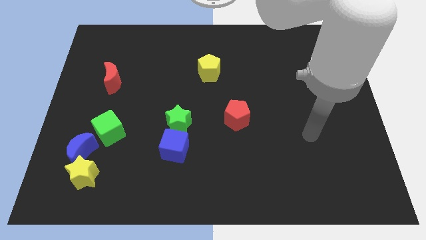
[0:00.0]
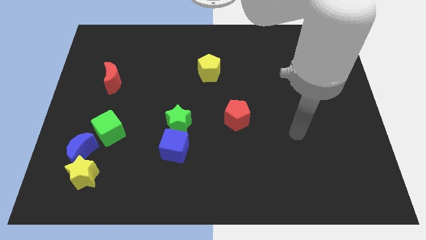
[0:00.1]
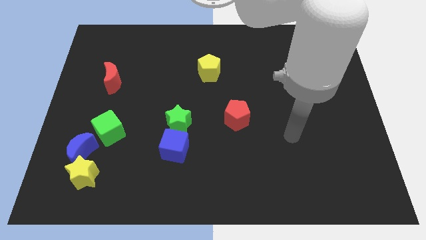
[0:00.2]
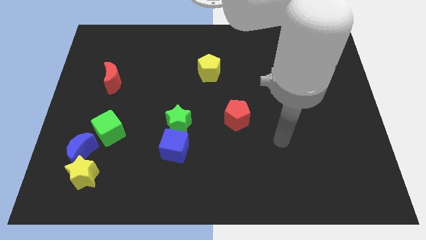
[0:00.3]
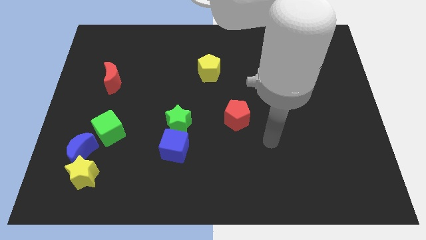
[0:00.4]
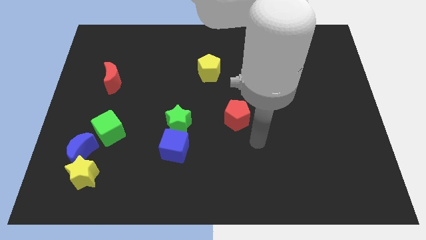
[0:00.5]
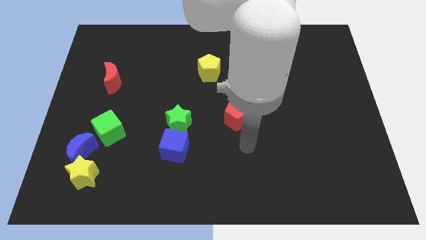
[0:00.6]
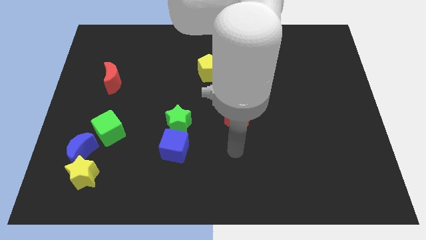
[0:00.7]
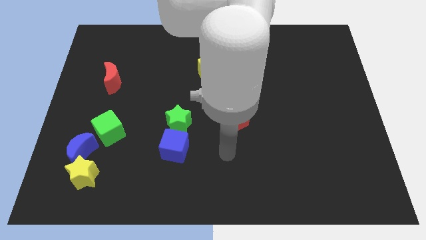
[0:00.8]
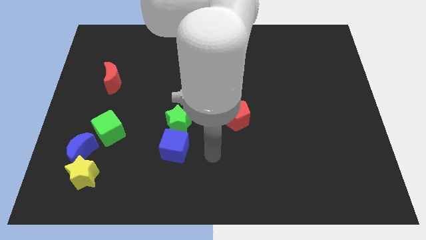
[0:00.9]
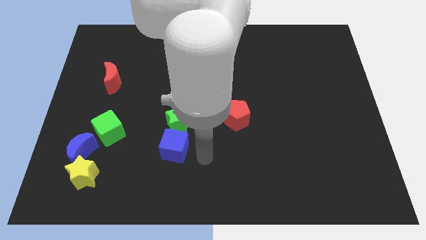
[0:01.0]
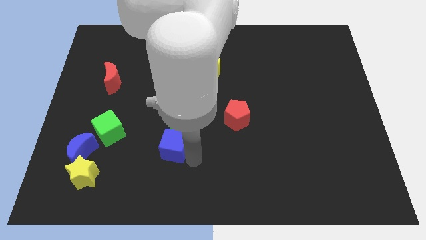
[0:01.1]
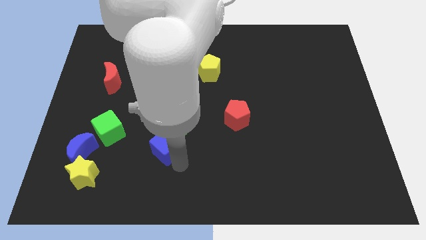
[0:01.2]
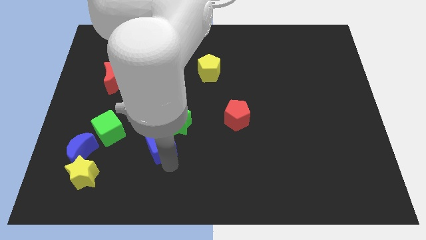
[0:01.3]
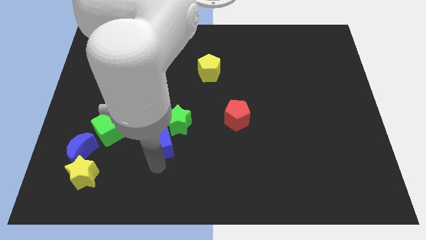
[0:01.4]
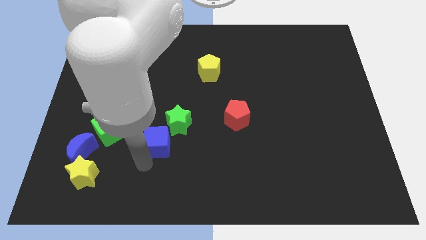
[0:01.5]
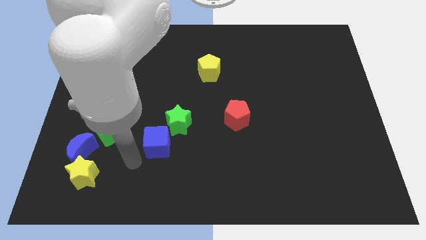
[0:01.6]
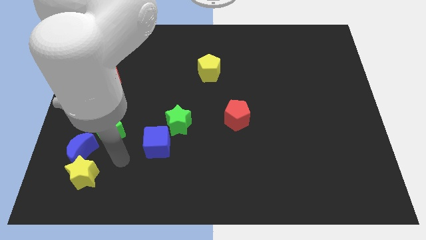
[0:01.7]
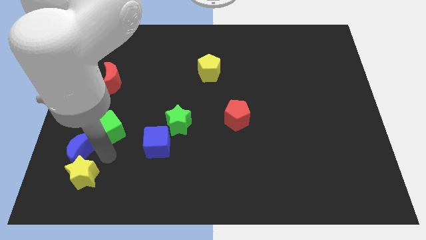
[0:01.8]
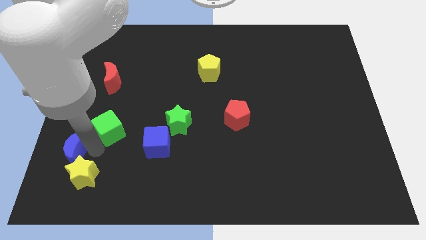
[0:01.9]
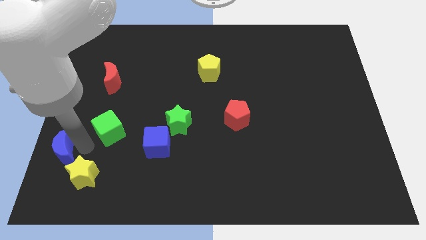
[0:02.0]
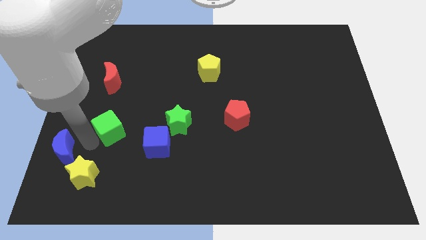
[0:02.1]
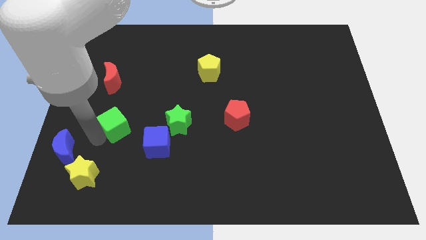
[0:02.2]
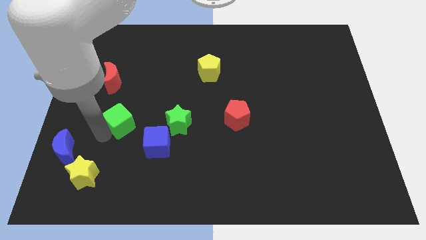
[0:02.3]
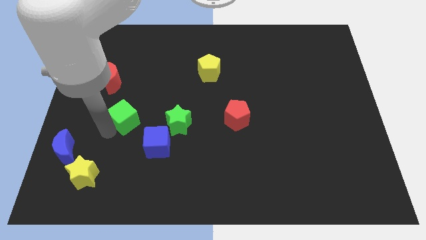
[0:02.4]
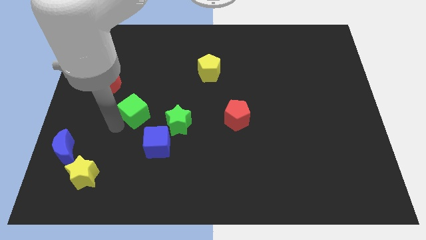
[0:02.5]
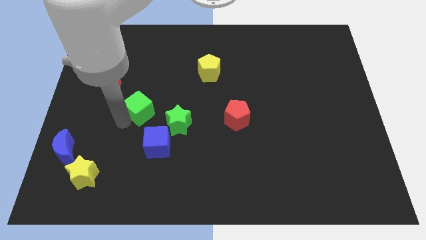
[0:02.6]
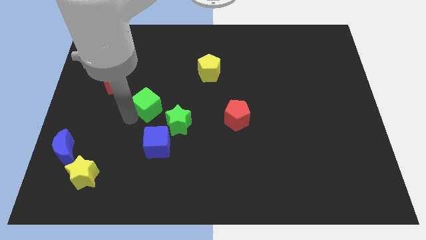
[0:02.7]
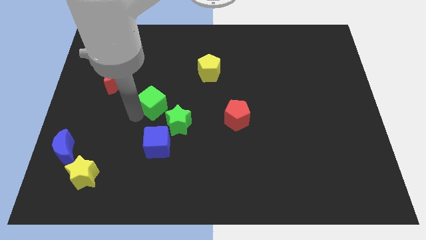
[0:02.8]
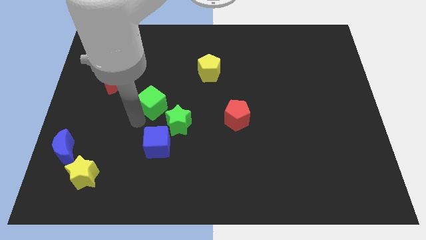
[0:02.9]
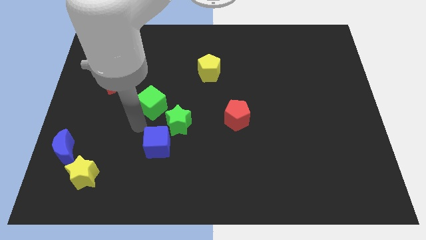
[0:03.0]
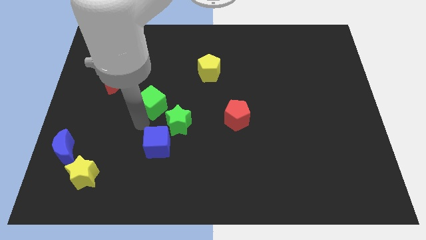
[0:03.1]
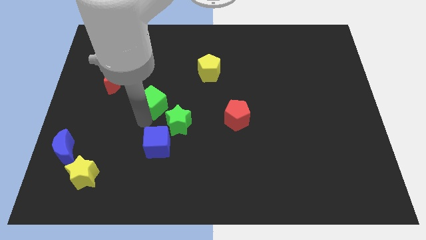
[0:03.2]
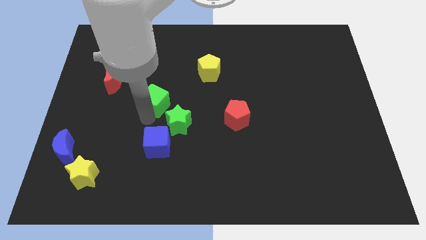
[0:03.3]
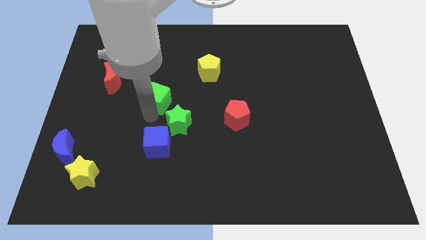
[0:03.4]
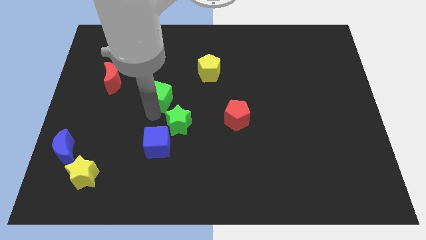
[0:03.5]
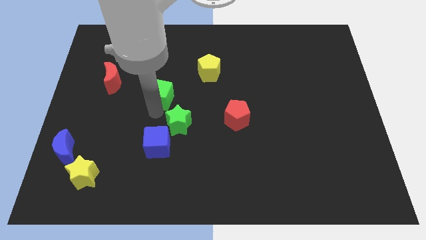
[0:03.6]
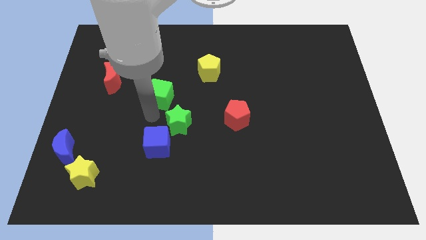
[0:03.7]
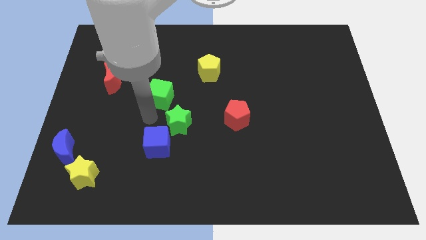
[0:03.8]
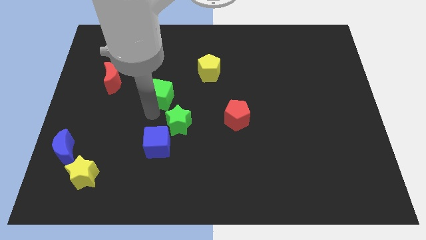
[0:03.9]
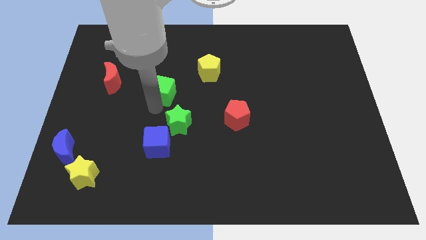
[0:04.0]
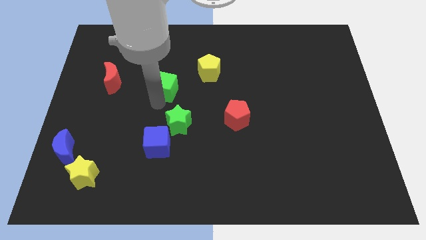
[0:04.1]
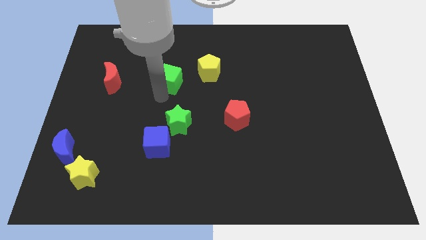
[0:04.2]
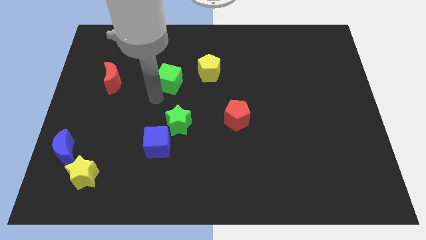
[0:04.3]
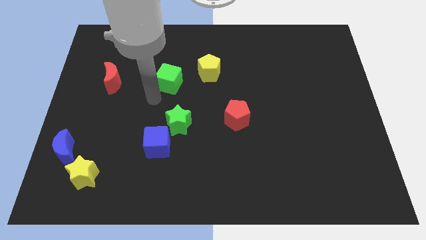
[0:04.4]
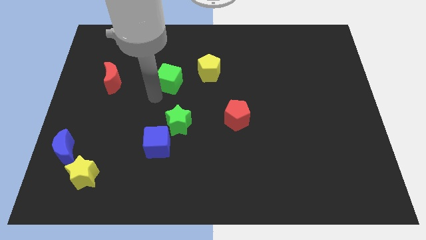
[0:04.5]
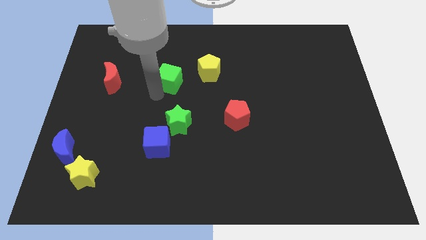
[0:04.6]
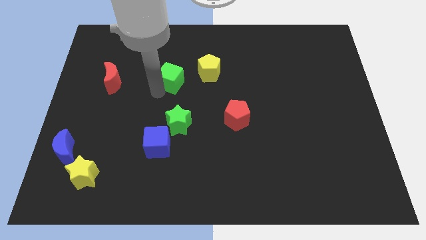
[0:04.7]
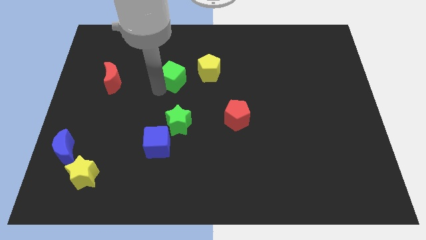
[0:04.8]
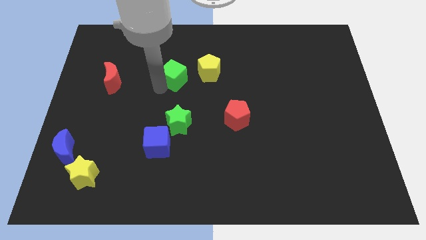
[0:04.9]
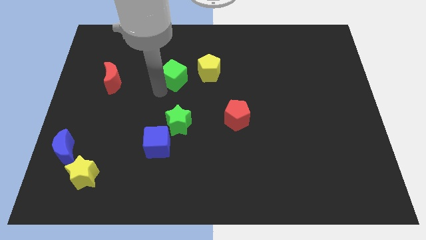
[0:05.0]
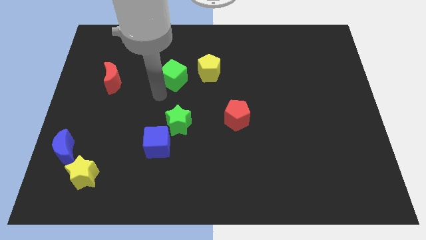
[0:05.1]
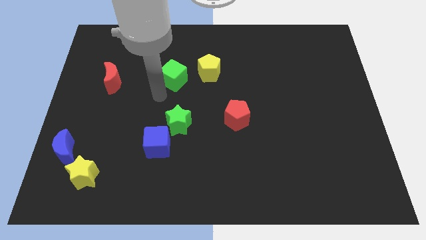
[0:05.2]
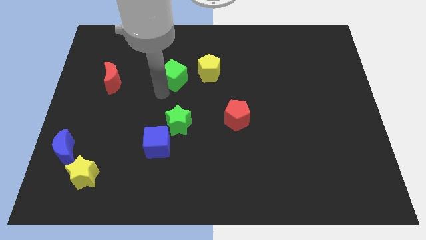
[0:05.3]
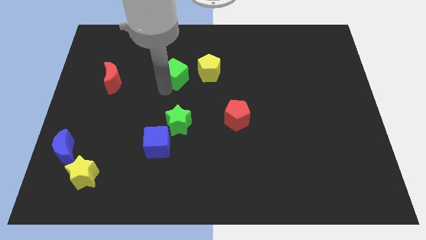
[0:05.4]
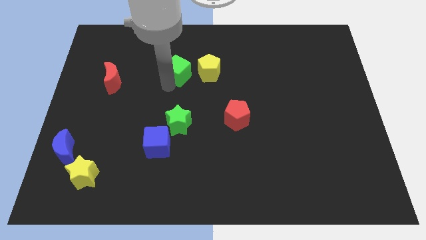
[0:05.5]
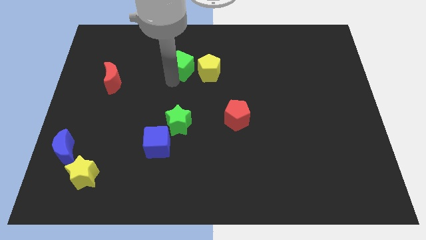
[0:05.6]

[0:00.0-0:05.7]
put the green cube diagonally up and to the left of the yellow pentagon

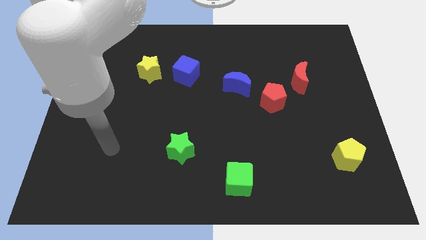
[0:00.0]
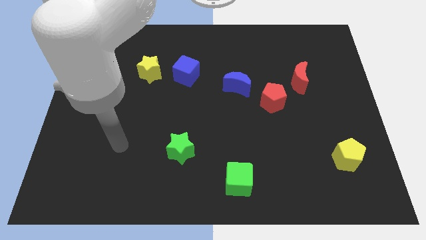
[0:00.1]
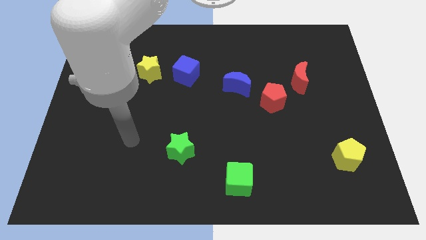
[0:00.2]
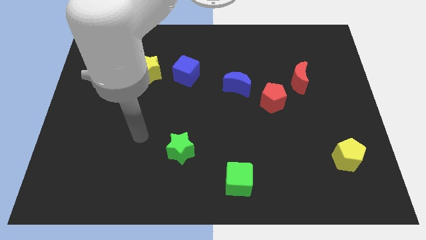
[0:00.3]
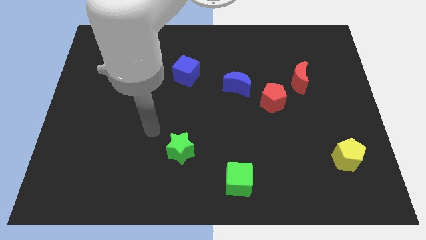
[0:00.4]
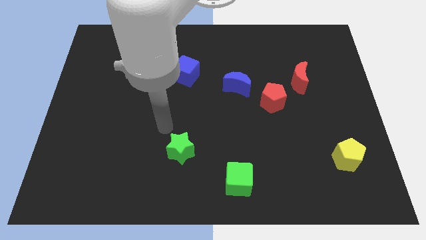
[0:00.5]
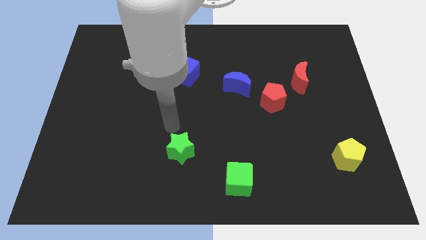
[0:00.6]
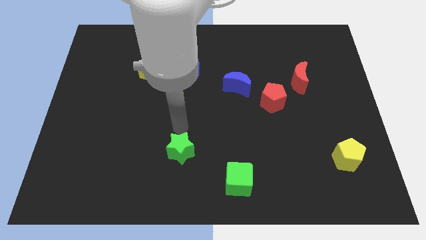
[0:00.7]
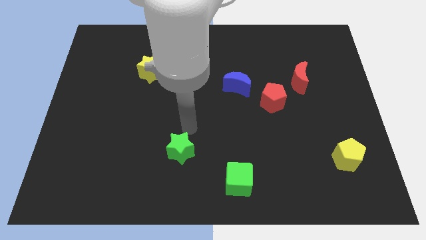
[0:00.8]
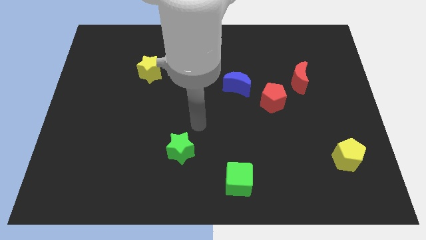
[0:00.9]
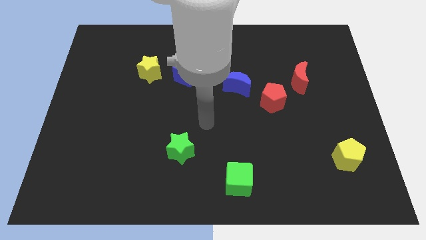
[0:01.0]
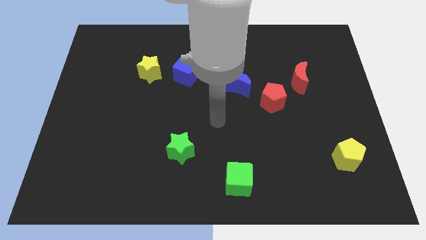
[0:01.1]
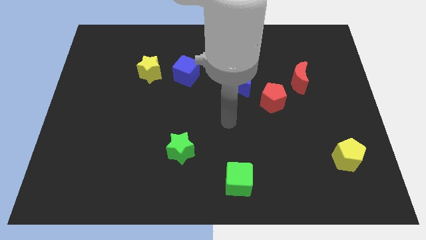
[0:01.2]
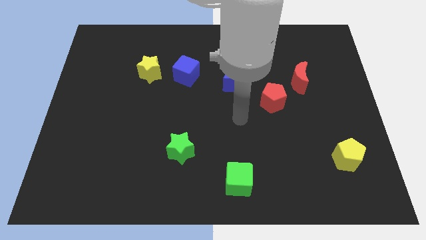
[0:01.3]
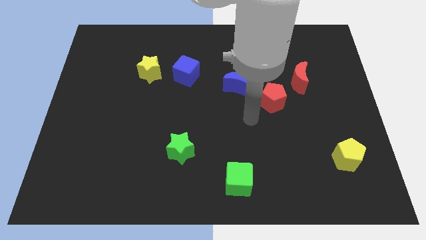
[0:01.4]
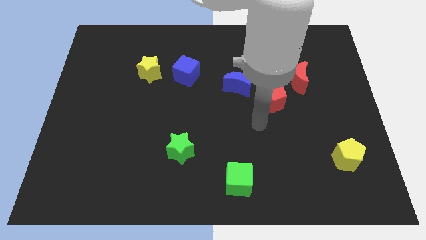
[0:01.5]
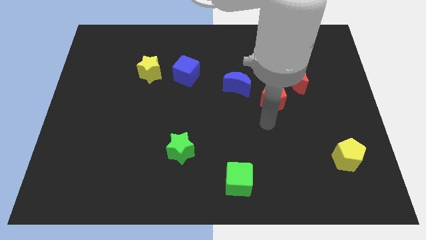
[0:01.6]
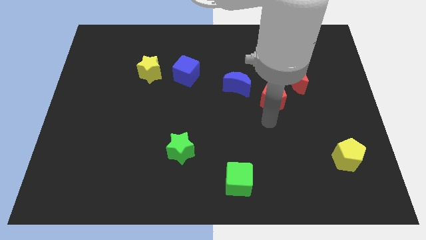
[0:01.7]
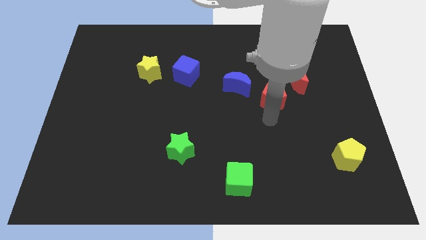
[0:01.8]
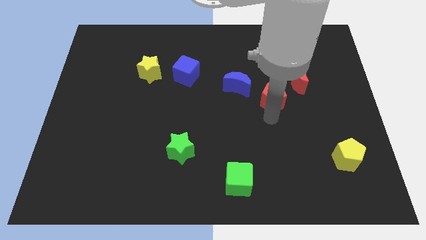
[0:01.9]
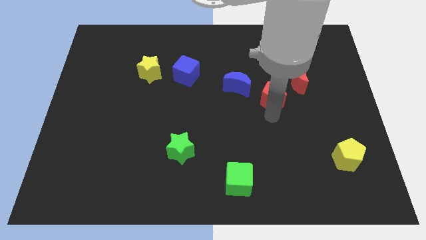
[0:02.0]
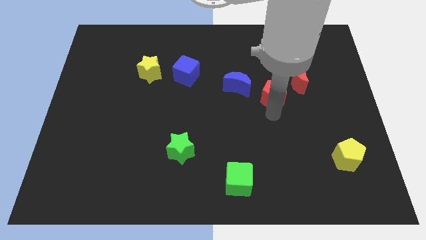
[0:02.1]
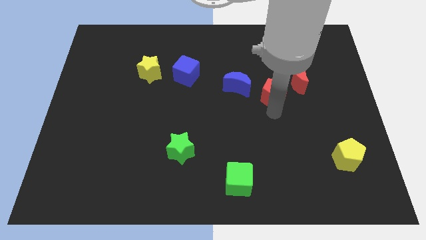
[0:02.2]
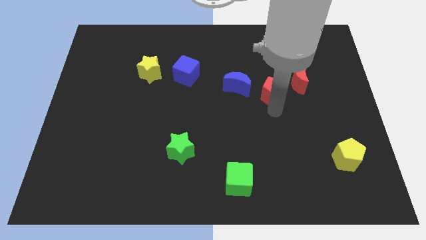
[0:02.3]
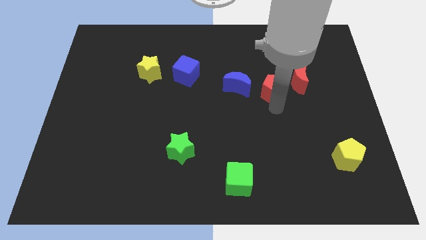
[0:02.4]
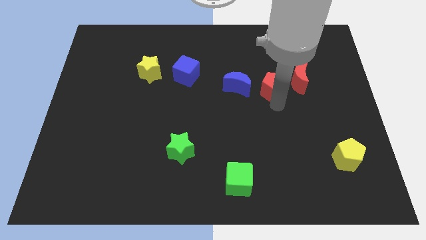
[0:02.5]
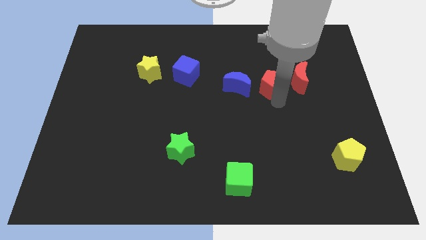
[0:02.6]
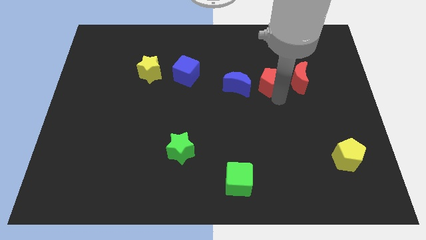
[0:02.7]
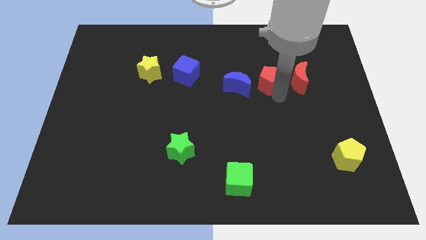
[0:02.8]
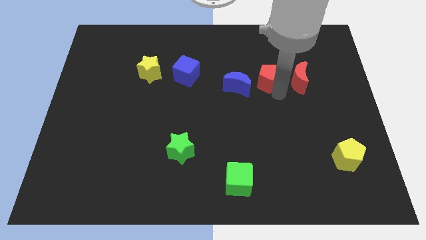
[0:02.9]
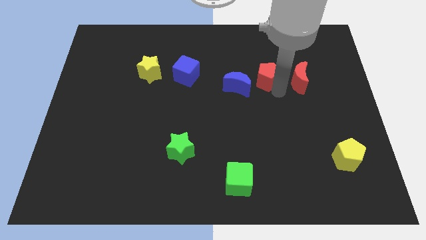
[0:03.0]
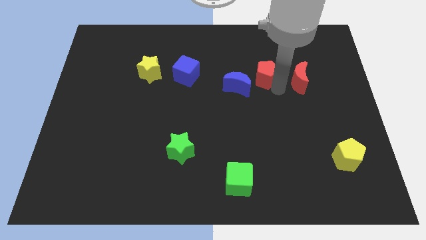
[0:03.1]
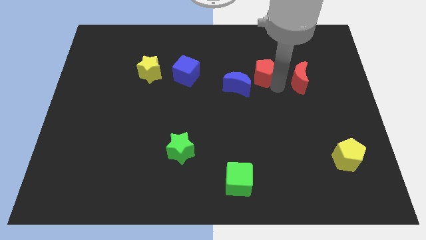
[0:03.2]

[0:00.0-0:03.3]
slide the red pentagon to the top left of the red moon
